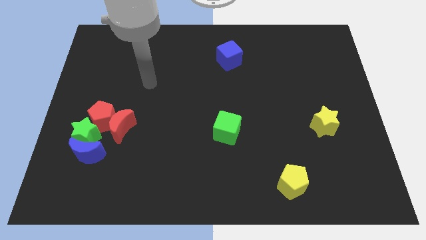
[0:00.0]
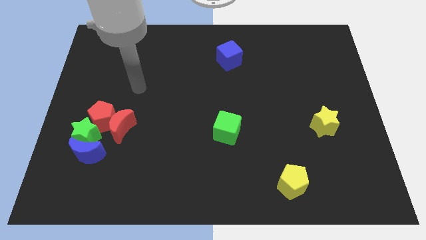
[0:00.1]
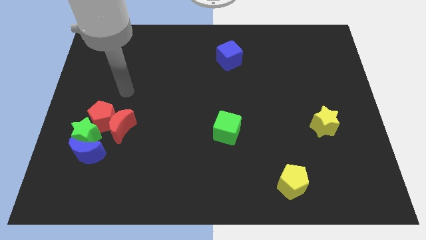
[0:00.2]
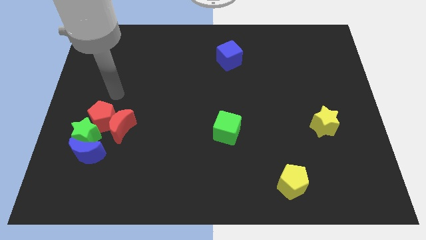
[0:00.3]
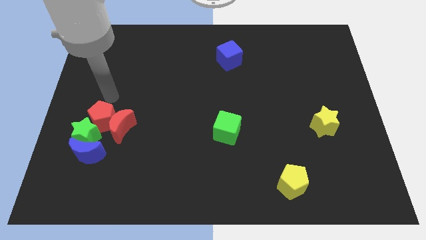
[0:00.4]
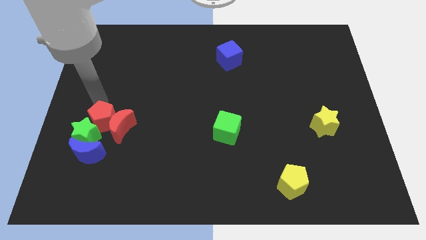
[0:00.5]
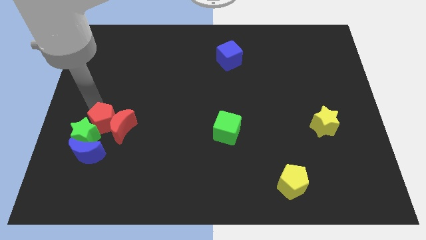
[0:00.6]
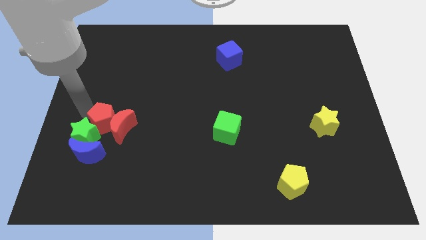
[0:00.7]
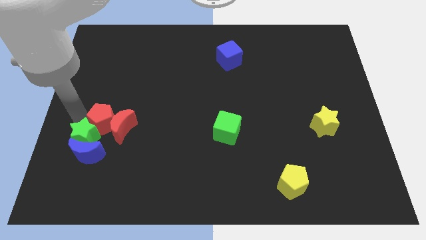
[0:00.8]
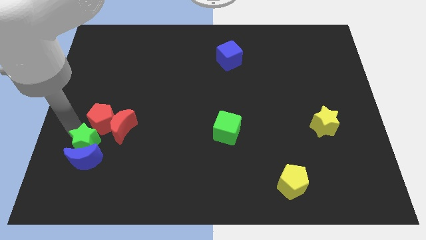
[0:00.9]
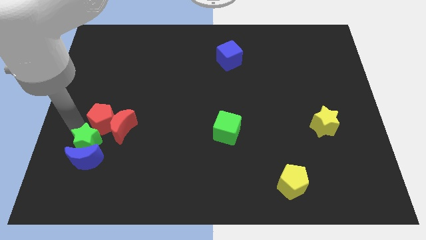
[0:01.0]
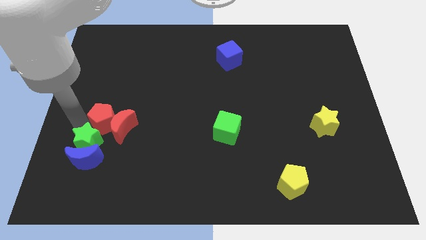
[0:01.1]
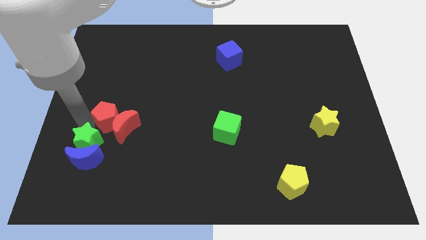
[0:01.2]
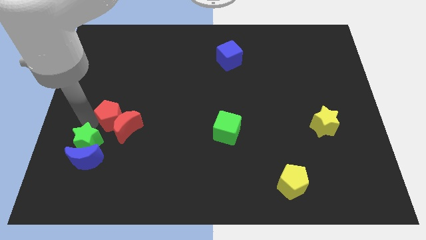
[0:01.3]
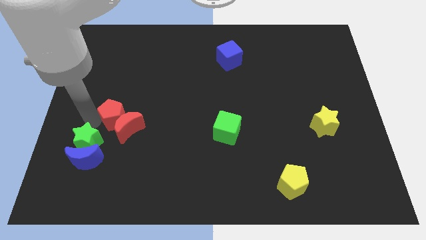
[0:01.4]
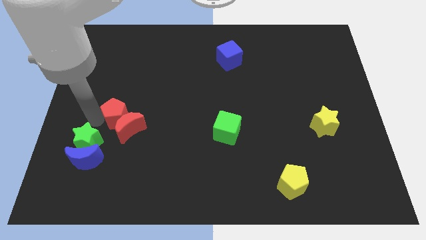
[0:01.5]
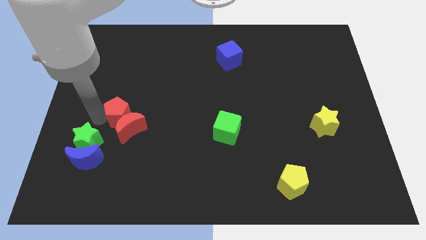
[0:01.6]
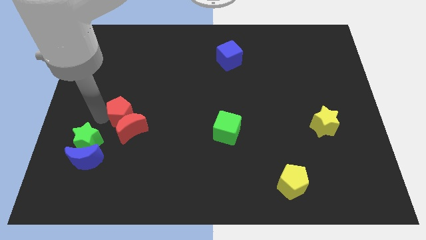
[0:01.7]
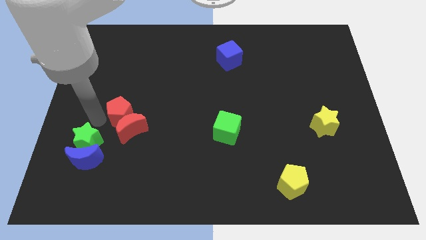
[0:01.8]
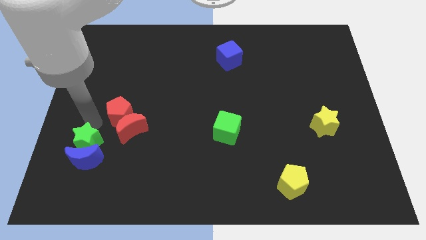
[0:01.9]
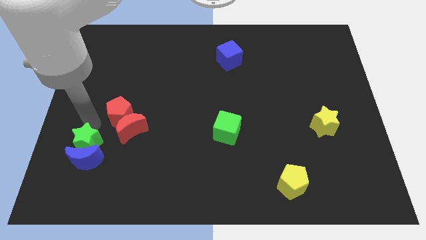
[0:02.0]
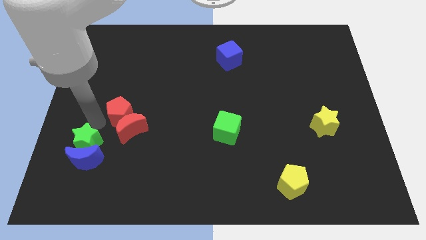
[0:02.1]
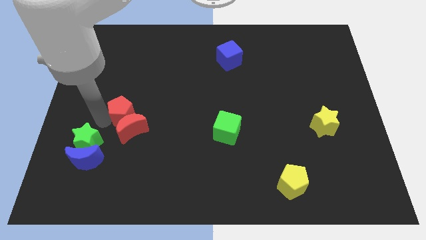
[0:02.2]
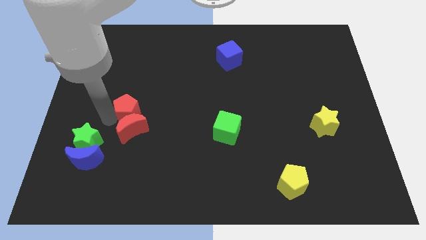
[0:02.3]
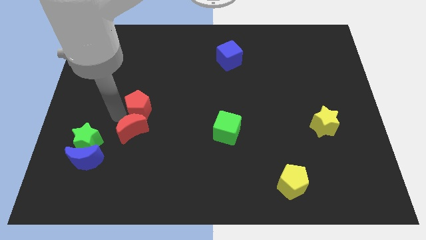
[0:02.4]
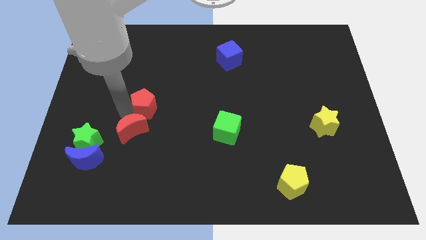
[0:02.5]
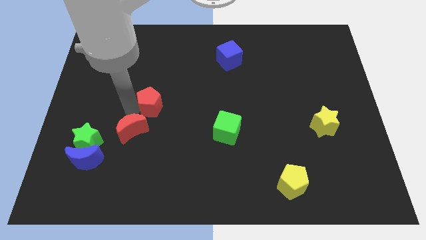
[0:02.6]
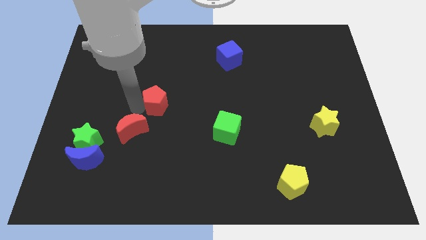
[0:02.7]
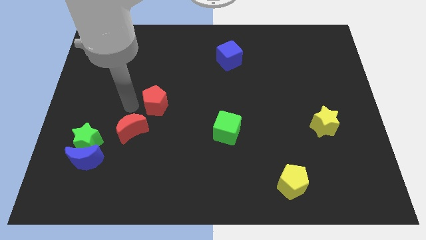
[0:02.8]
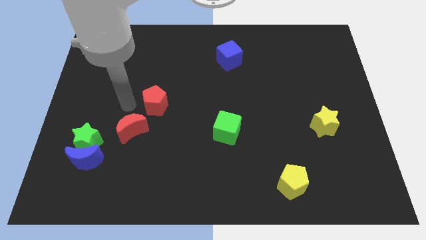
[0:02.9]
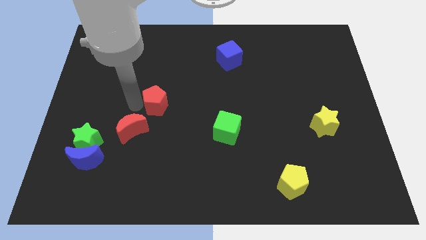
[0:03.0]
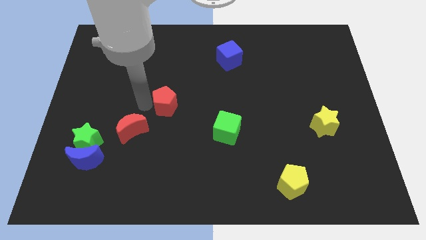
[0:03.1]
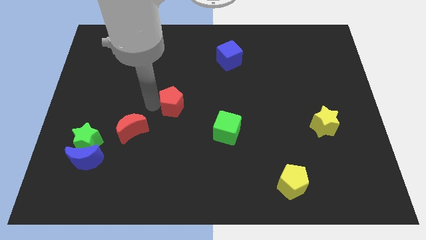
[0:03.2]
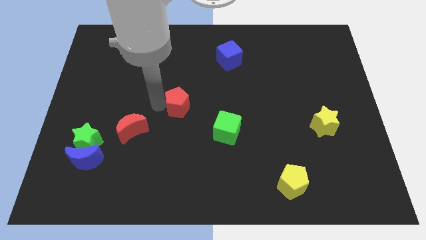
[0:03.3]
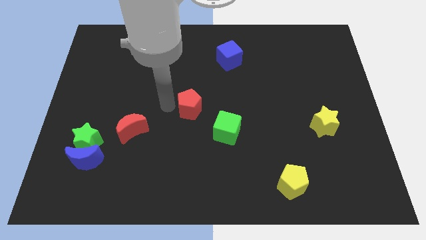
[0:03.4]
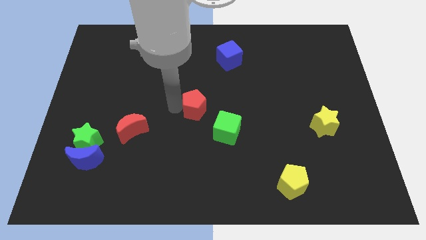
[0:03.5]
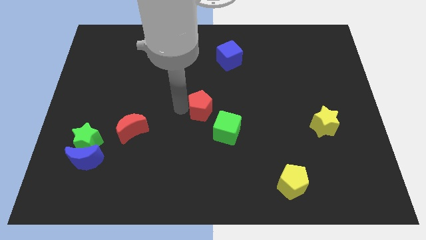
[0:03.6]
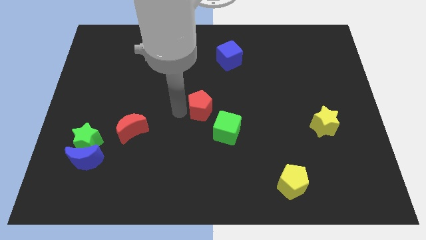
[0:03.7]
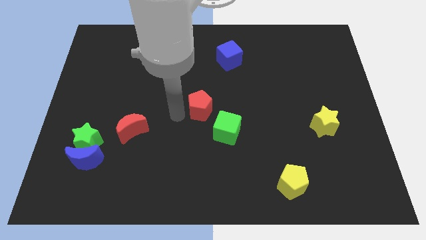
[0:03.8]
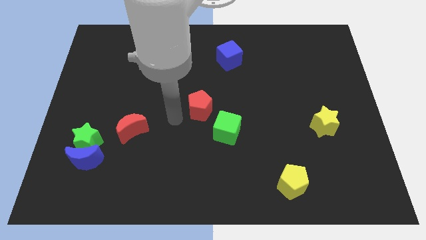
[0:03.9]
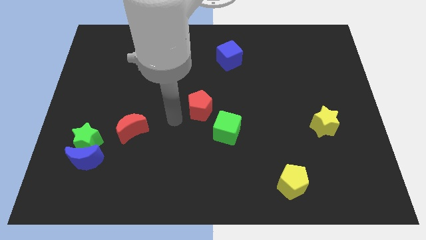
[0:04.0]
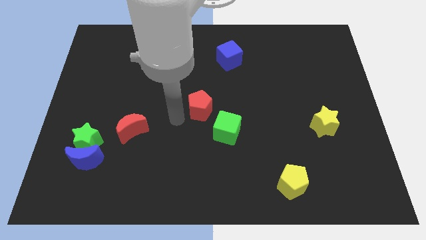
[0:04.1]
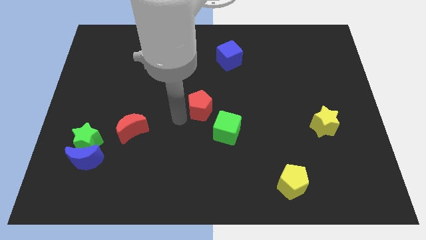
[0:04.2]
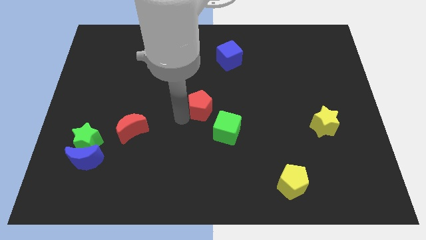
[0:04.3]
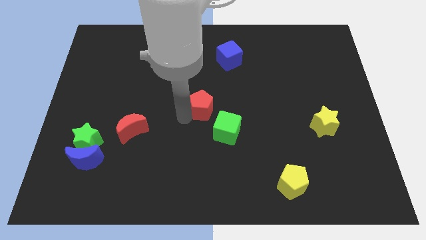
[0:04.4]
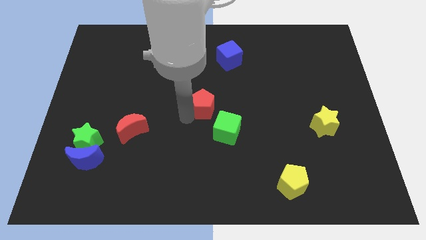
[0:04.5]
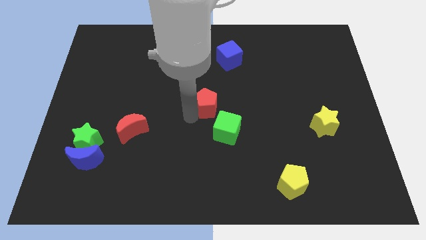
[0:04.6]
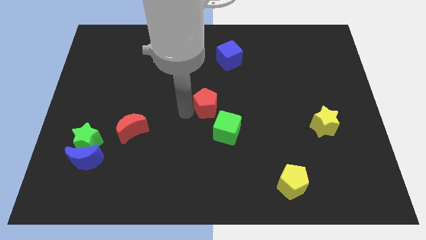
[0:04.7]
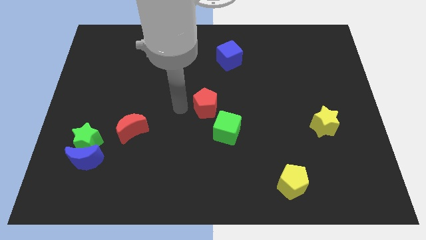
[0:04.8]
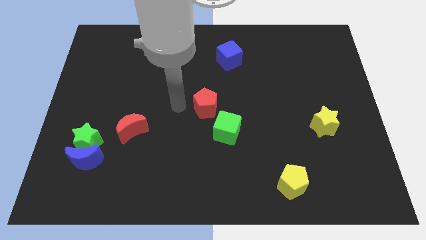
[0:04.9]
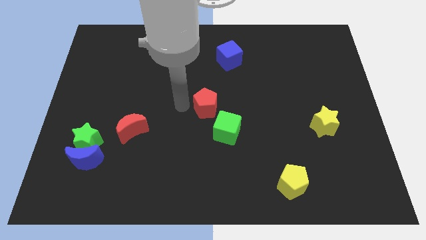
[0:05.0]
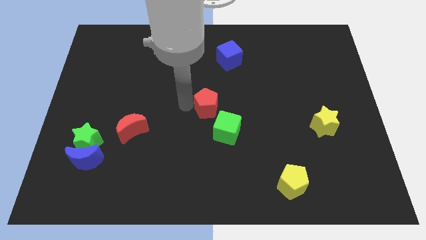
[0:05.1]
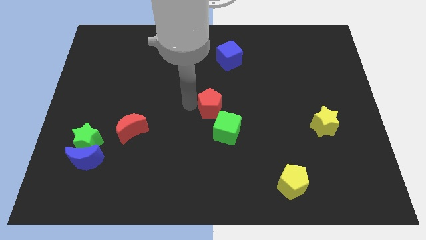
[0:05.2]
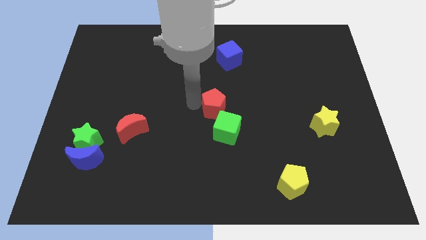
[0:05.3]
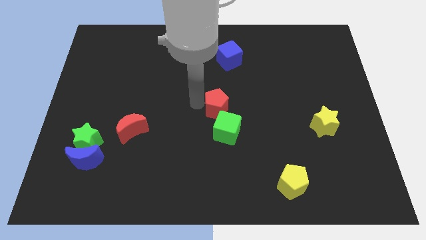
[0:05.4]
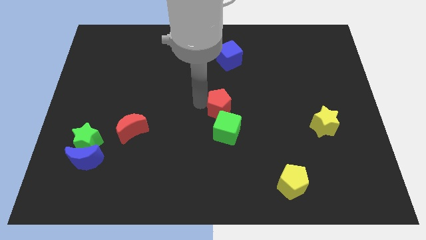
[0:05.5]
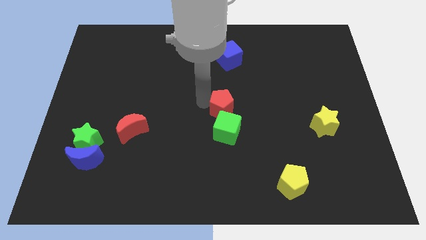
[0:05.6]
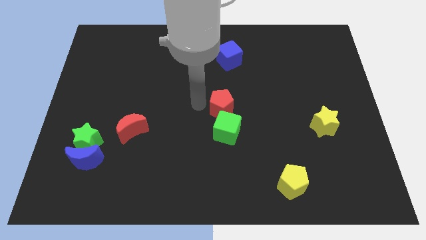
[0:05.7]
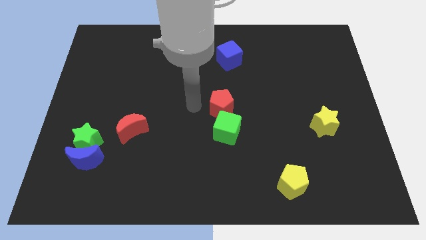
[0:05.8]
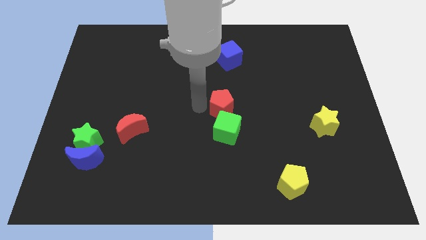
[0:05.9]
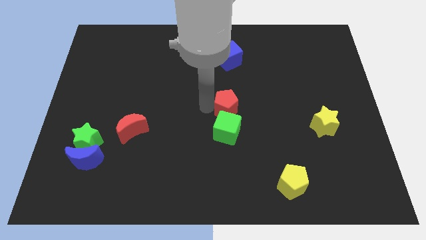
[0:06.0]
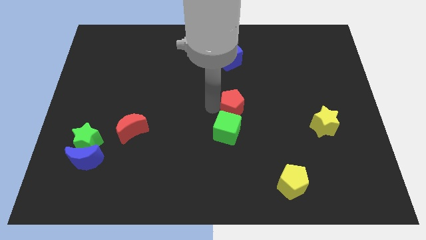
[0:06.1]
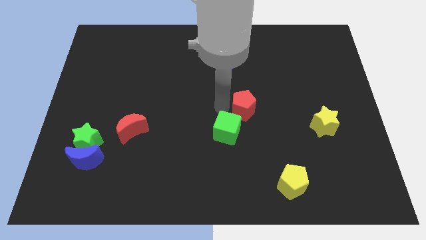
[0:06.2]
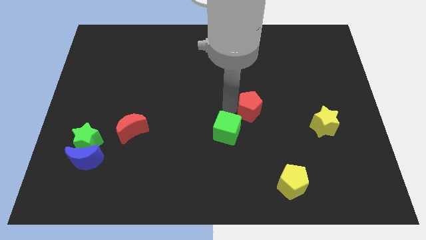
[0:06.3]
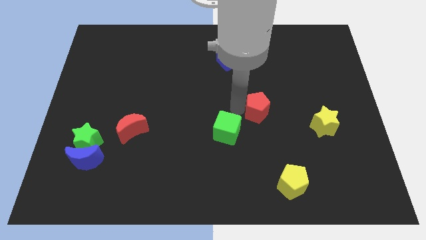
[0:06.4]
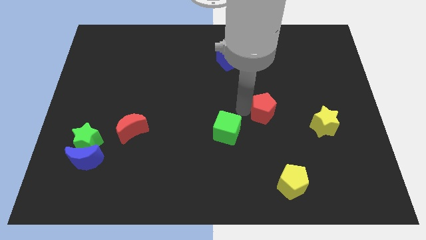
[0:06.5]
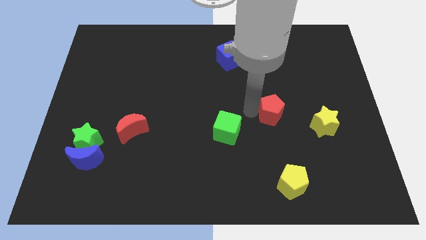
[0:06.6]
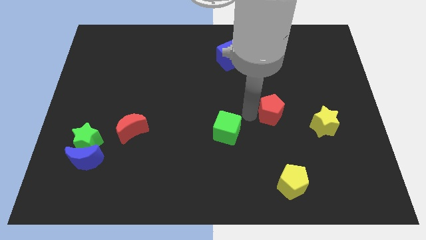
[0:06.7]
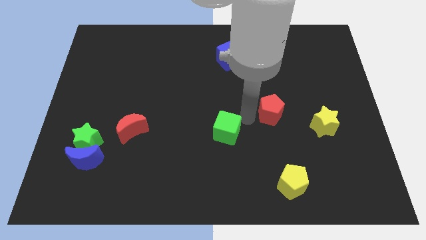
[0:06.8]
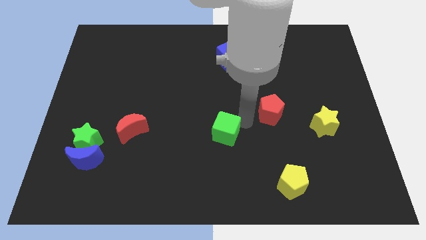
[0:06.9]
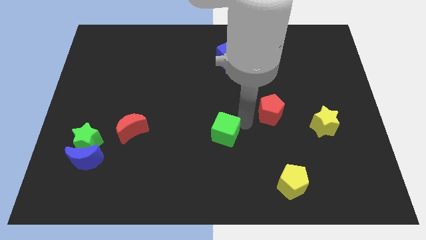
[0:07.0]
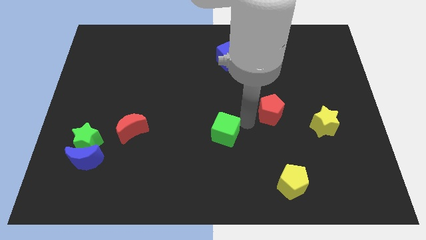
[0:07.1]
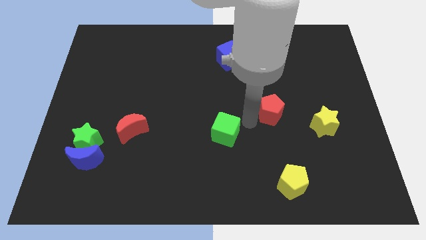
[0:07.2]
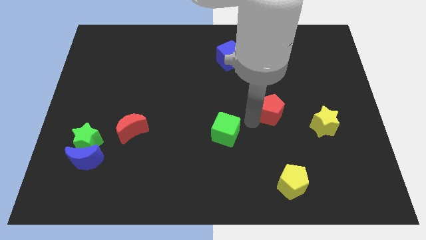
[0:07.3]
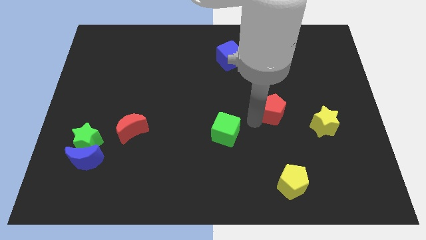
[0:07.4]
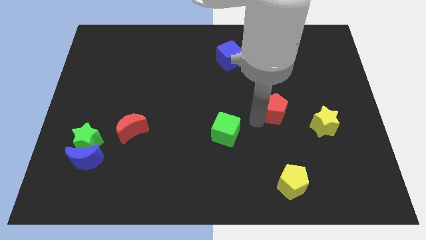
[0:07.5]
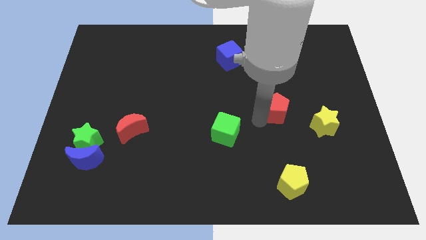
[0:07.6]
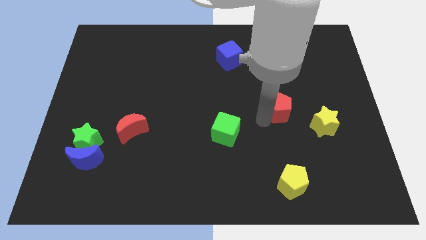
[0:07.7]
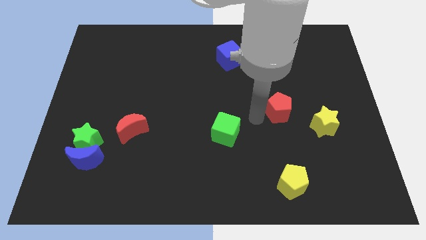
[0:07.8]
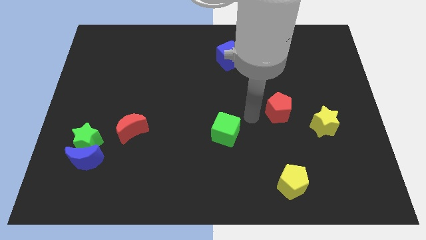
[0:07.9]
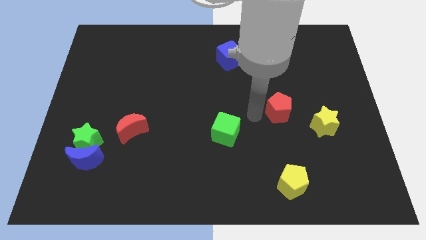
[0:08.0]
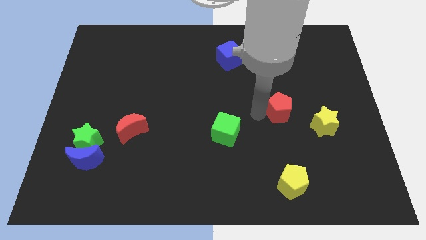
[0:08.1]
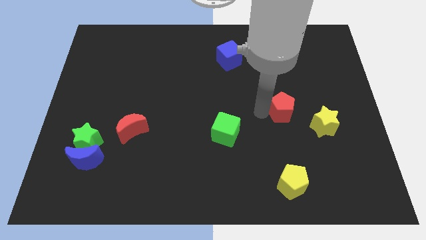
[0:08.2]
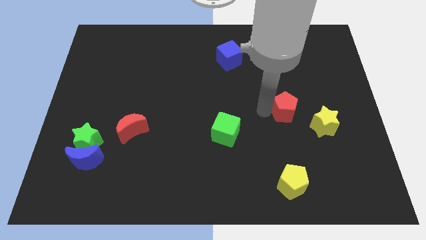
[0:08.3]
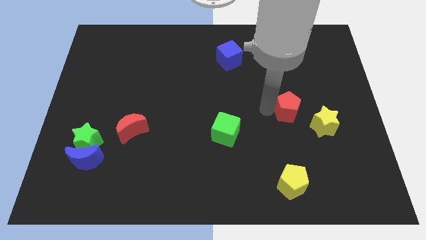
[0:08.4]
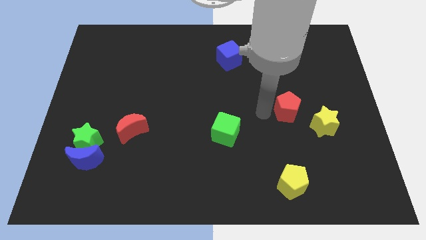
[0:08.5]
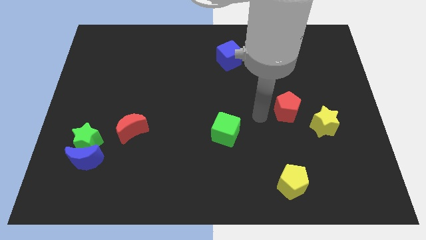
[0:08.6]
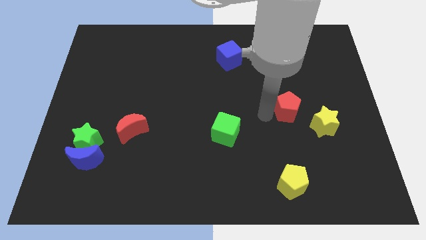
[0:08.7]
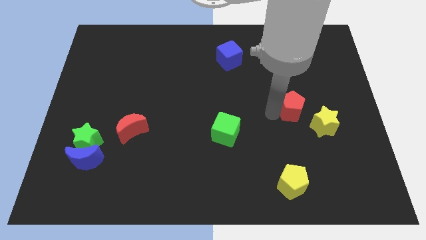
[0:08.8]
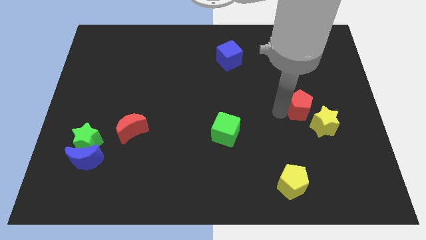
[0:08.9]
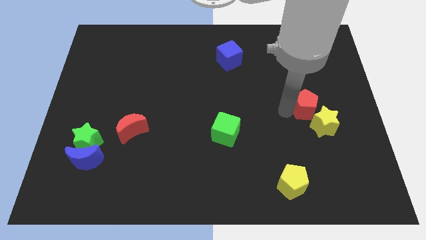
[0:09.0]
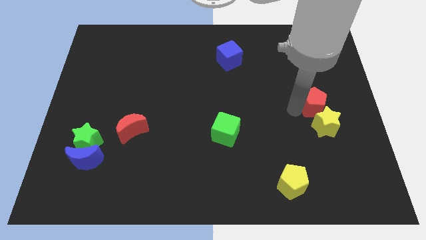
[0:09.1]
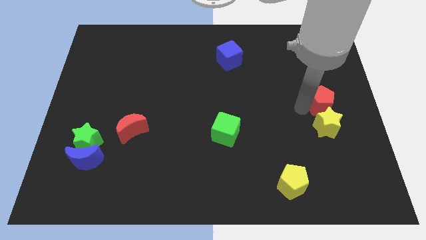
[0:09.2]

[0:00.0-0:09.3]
slide the red pentagon to the right side
